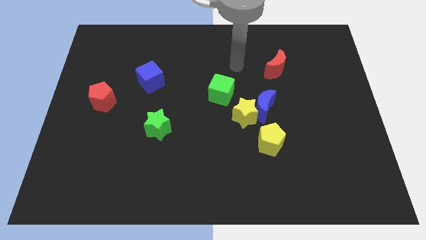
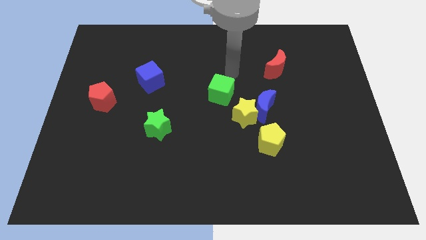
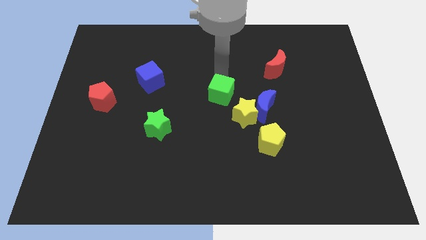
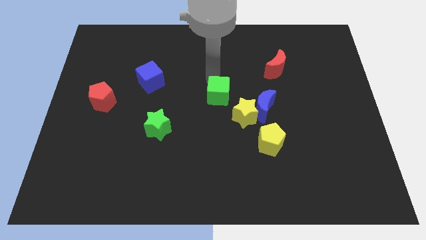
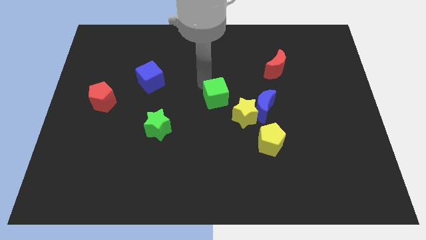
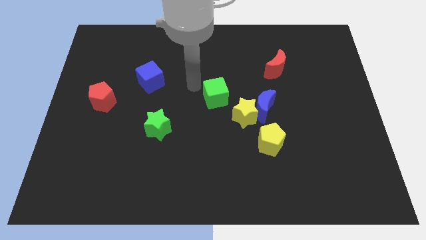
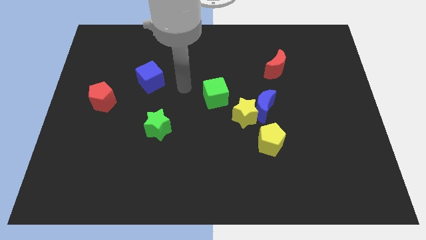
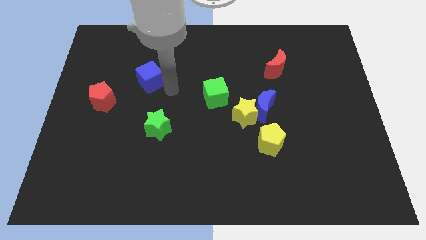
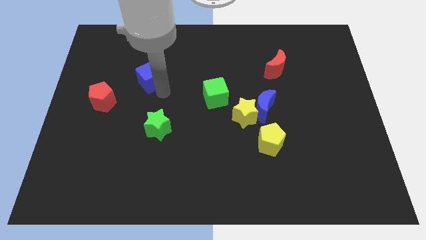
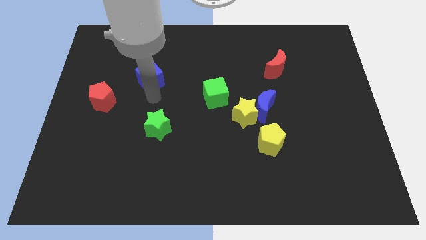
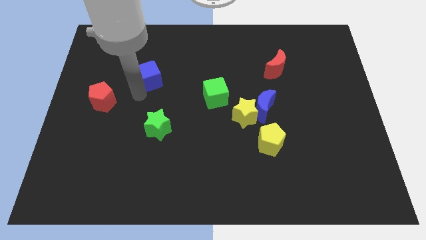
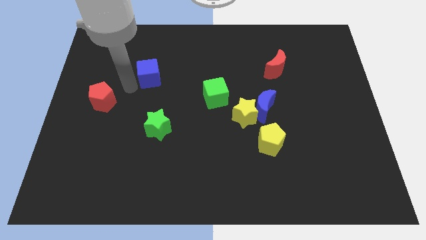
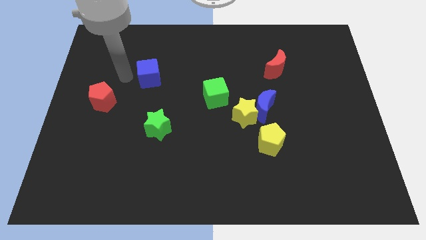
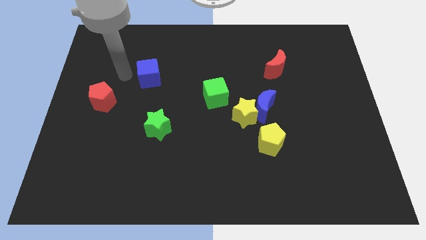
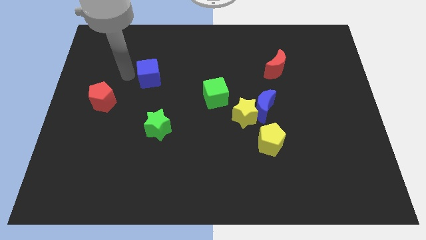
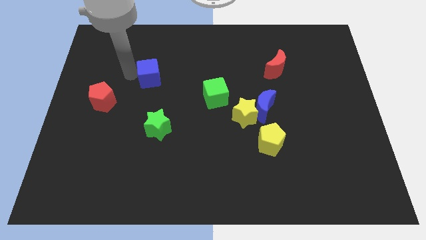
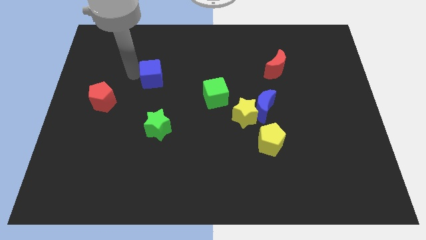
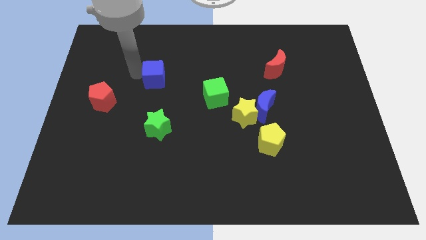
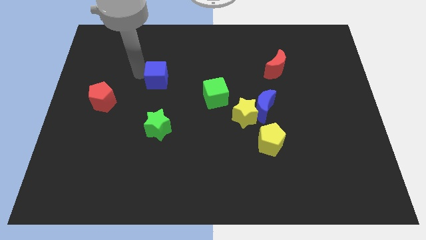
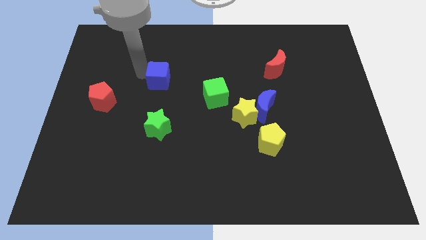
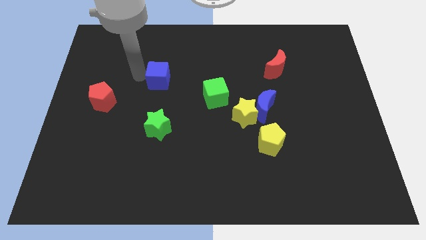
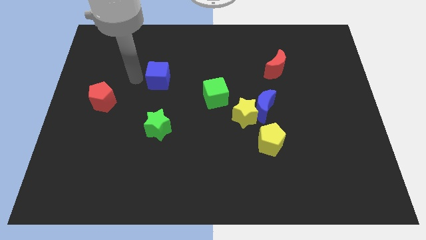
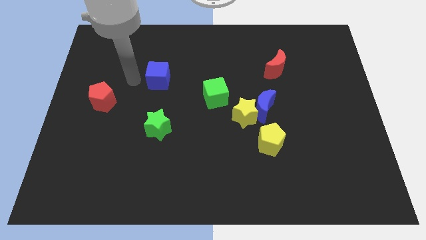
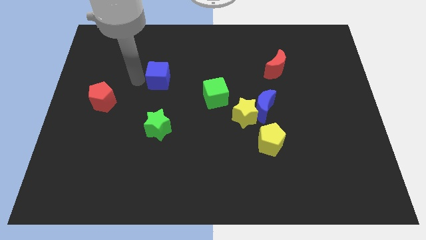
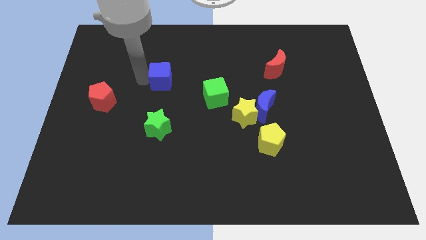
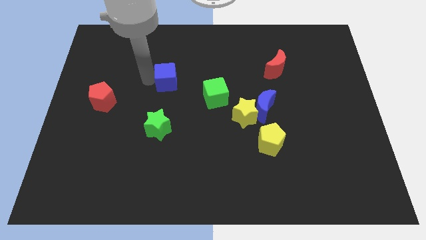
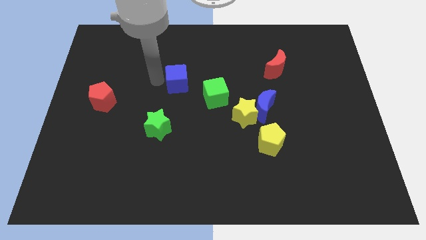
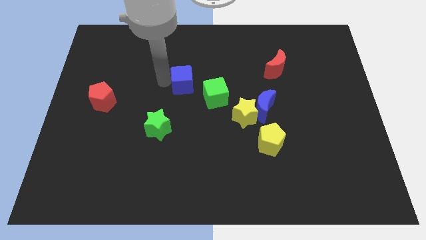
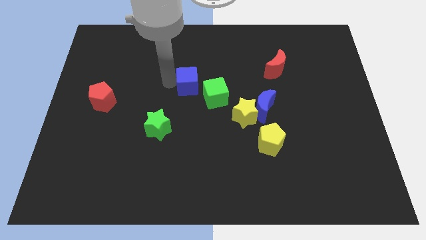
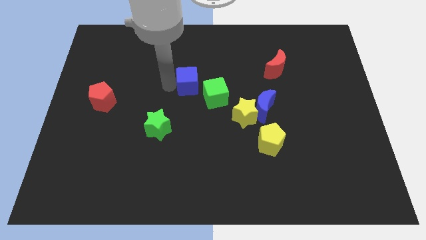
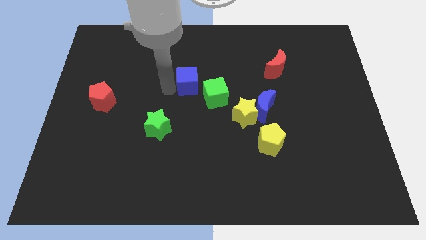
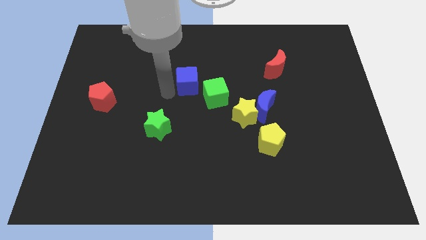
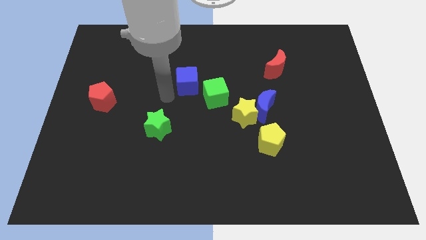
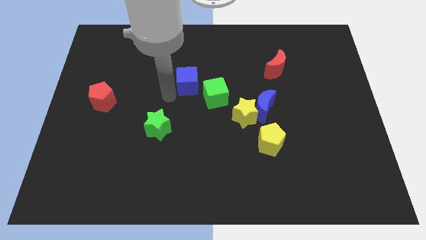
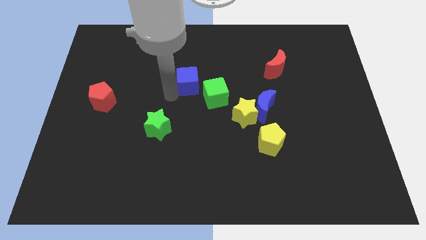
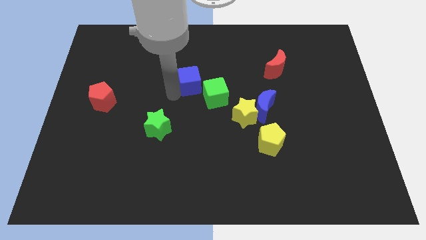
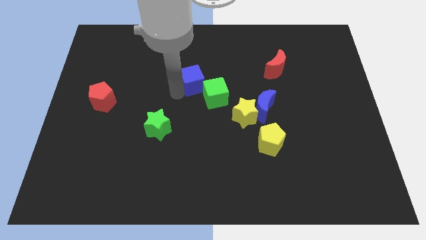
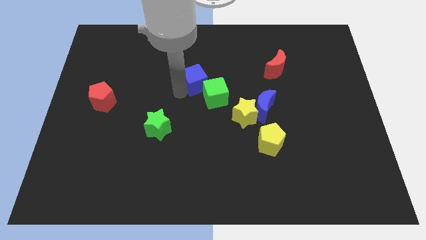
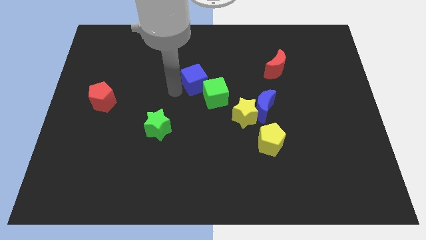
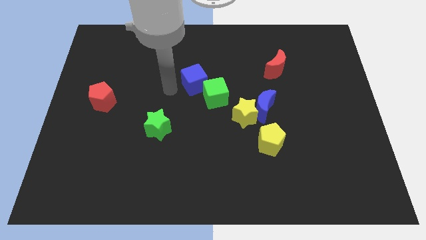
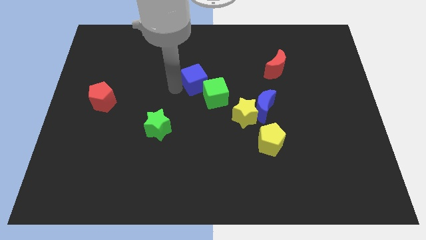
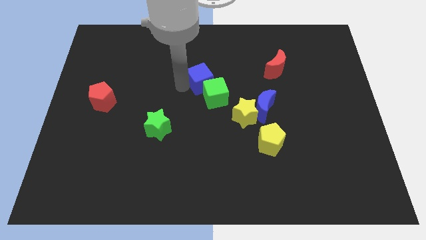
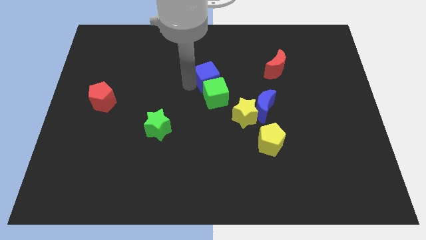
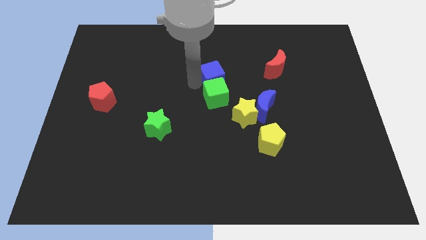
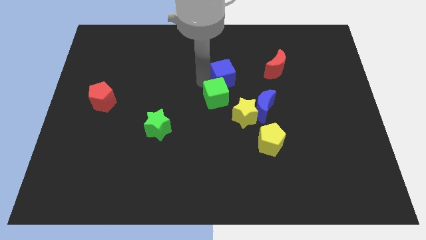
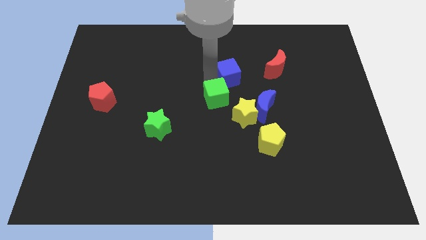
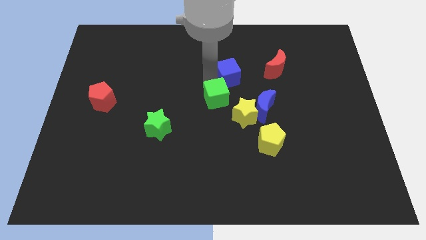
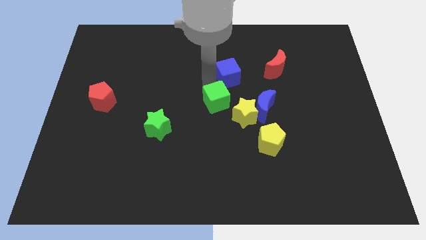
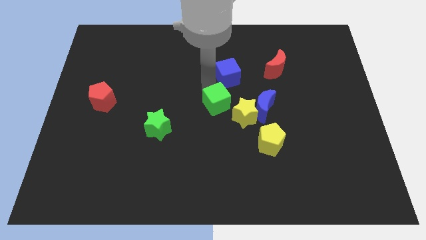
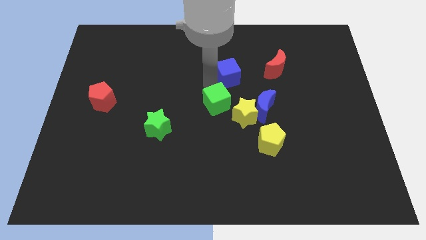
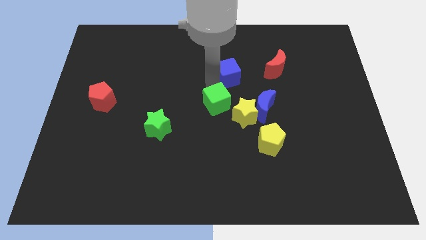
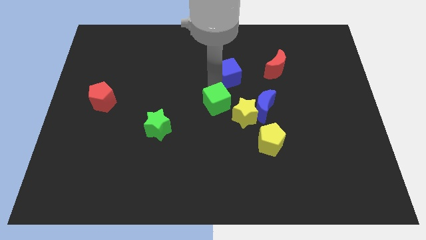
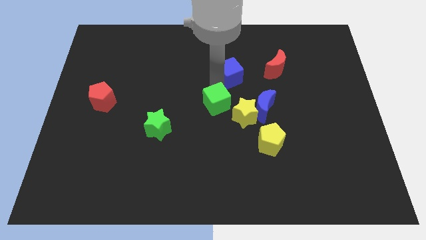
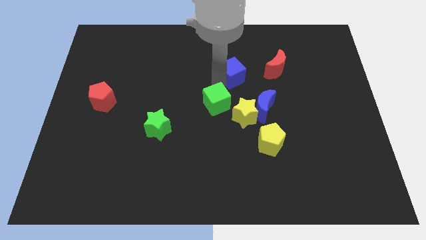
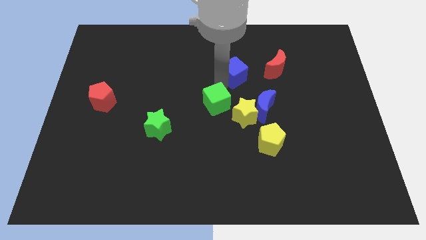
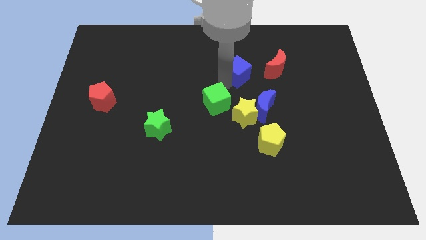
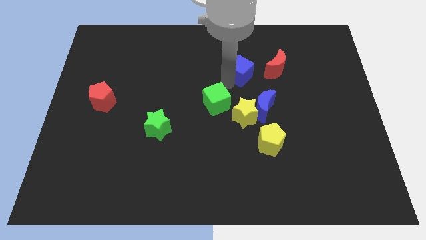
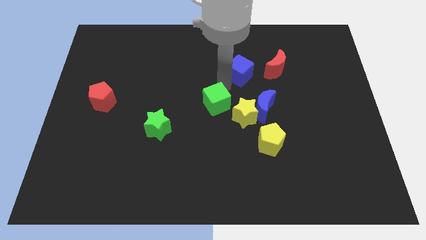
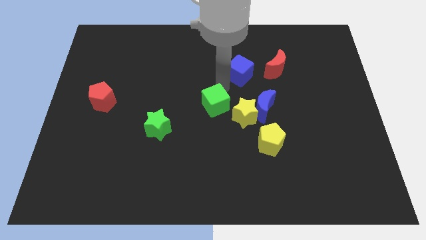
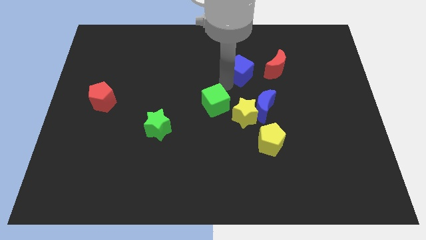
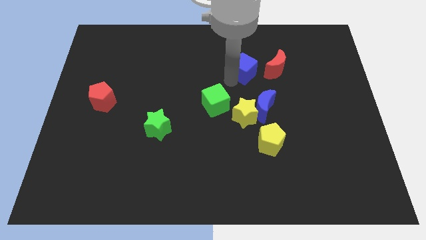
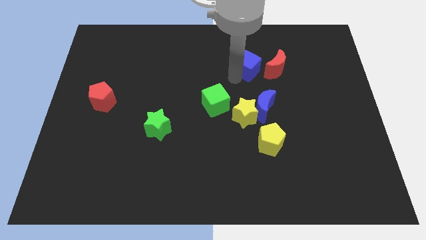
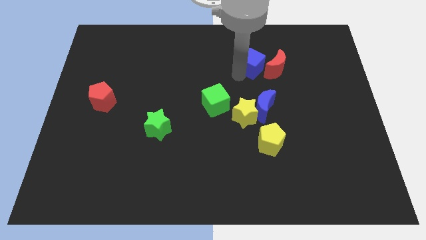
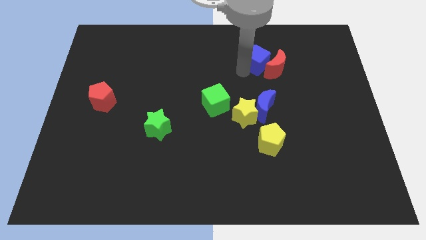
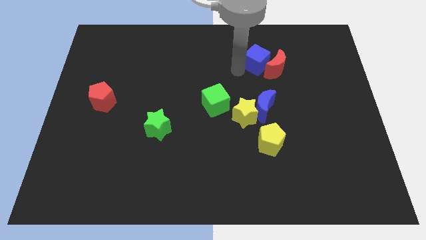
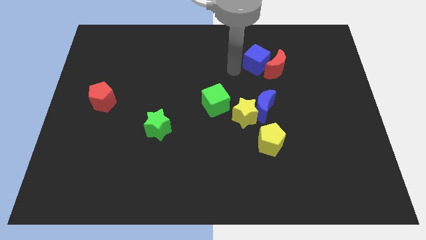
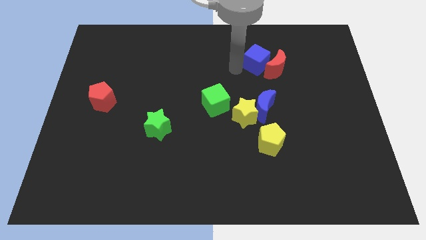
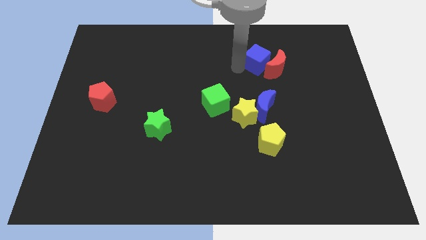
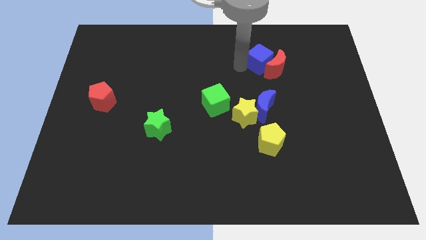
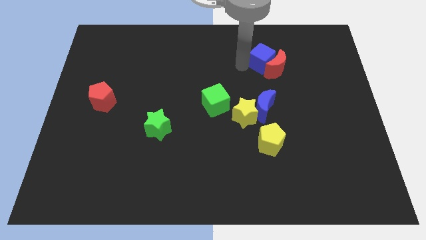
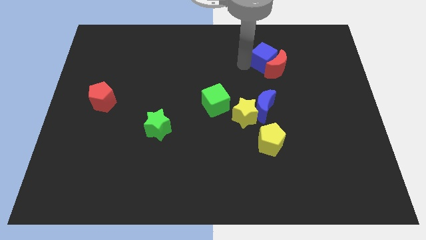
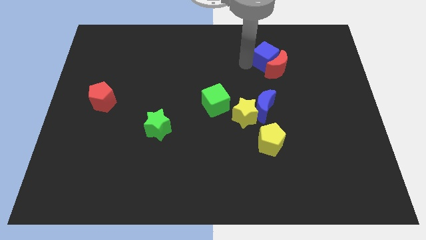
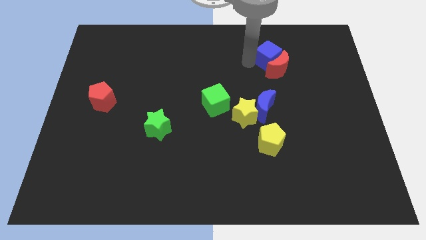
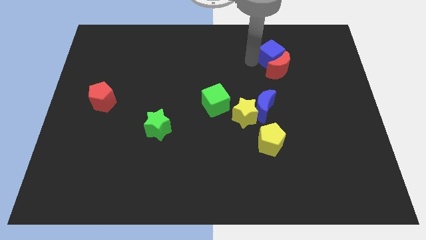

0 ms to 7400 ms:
put the blue cube diagonally up and to the right of the red moon
